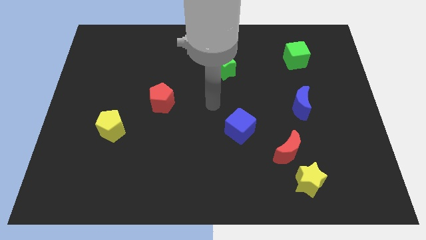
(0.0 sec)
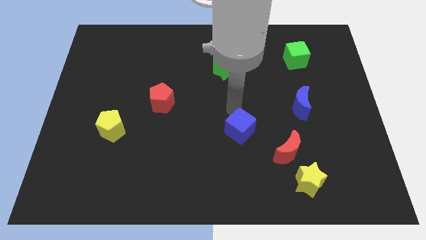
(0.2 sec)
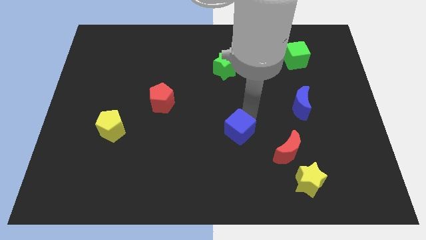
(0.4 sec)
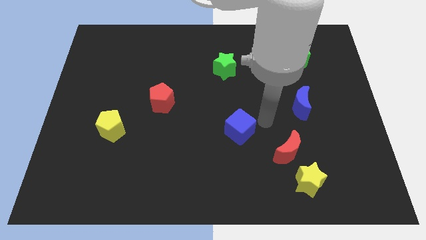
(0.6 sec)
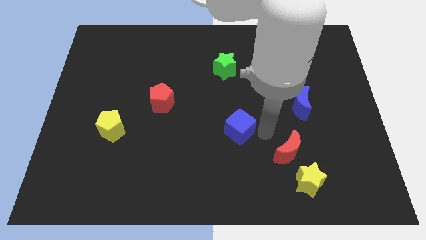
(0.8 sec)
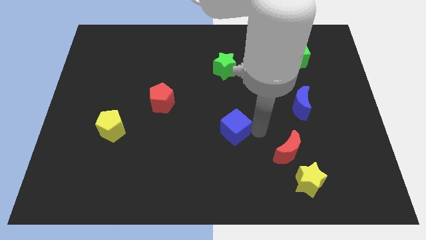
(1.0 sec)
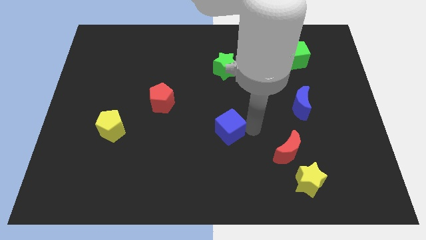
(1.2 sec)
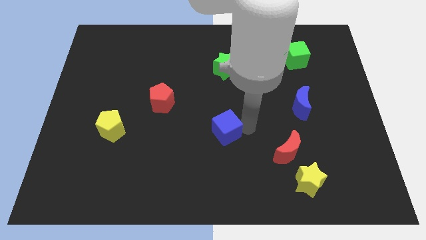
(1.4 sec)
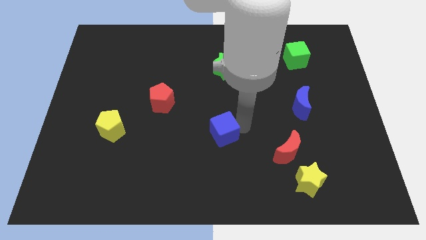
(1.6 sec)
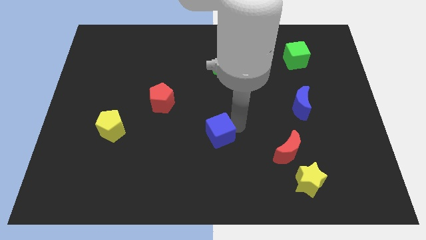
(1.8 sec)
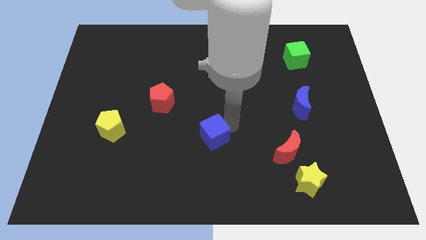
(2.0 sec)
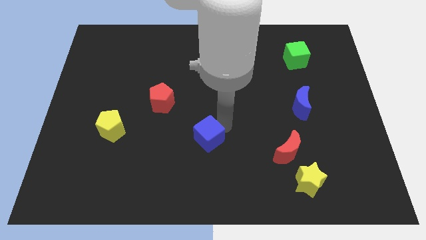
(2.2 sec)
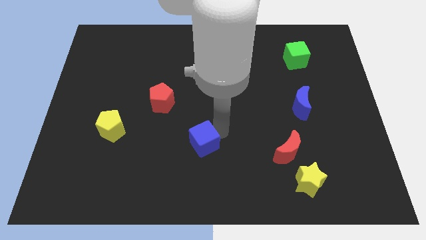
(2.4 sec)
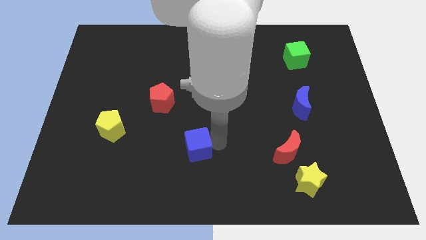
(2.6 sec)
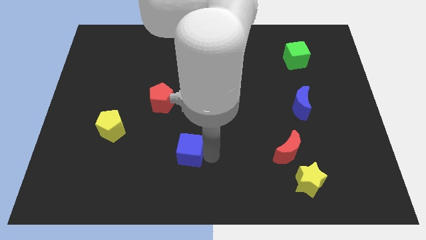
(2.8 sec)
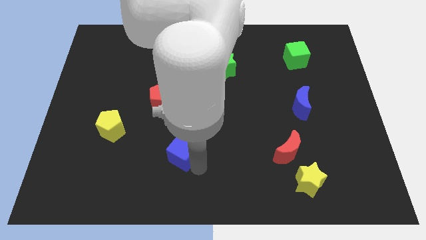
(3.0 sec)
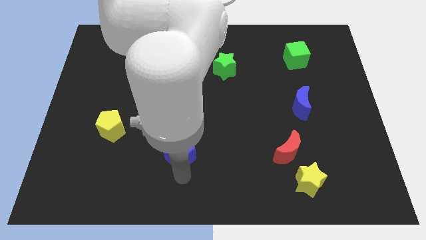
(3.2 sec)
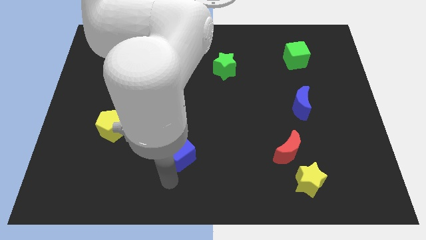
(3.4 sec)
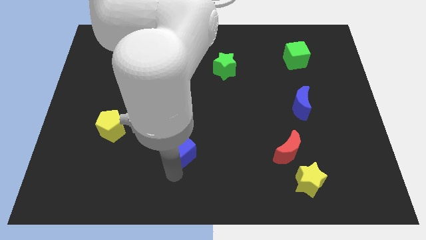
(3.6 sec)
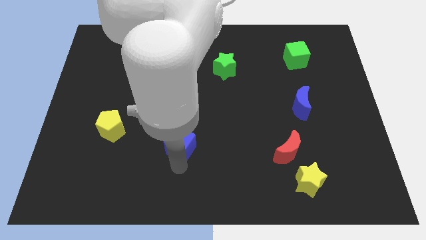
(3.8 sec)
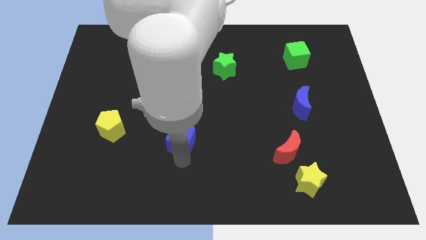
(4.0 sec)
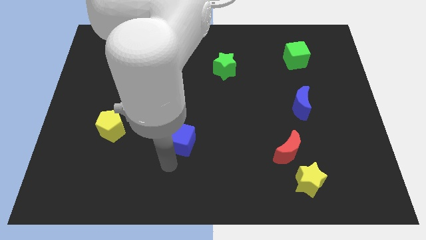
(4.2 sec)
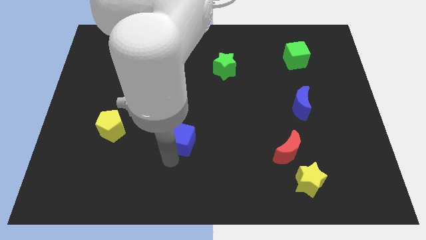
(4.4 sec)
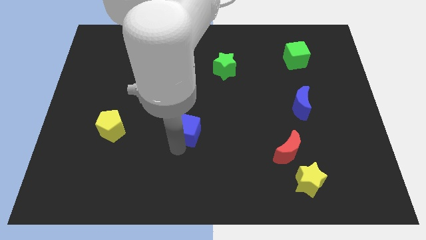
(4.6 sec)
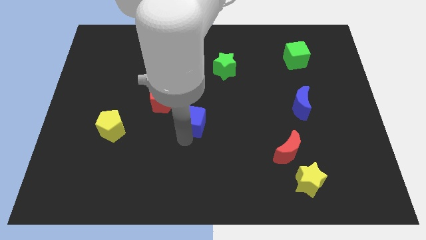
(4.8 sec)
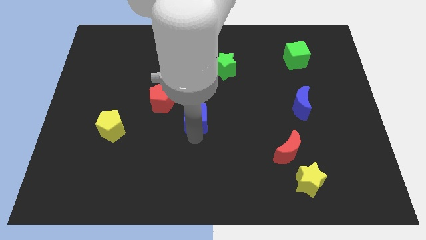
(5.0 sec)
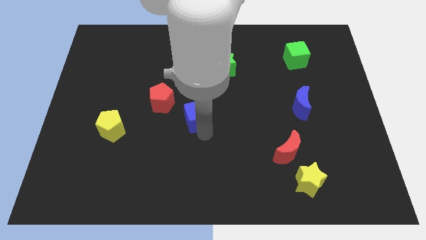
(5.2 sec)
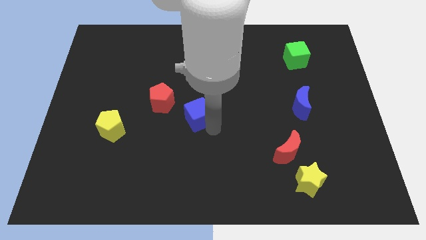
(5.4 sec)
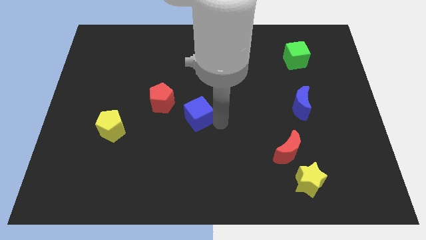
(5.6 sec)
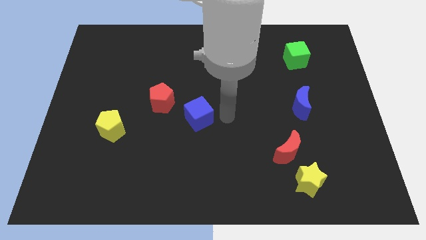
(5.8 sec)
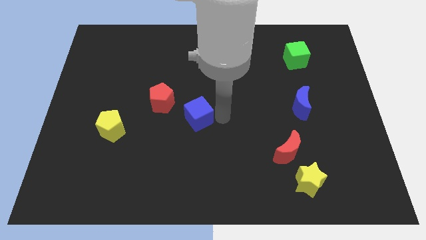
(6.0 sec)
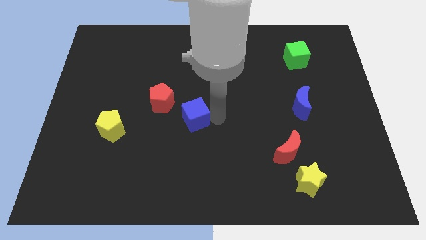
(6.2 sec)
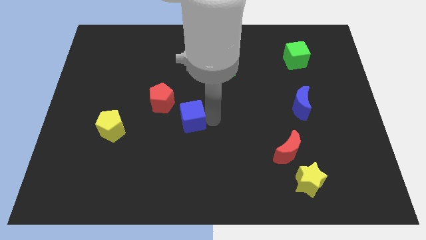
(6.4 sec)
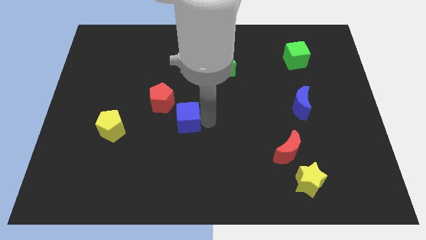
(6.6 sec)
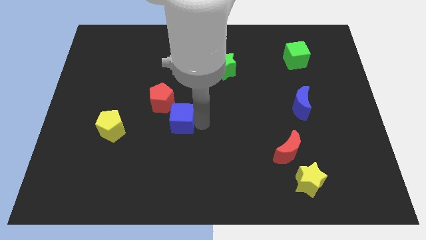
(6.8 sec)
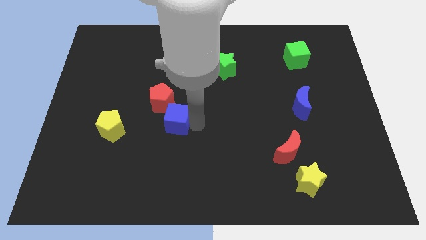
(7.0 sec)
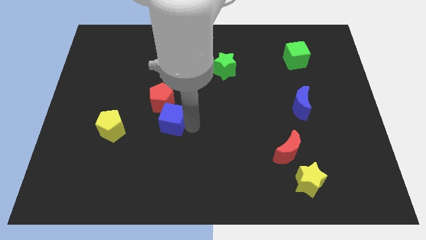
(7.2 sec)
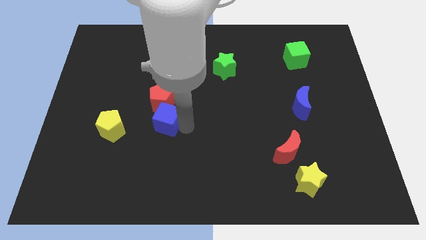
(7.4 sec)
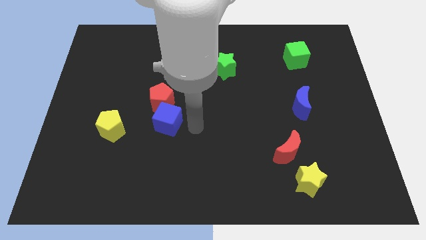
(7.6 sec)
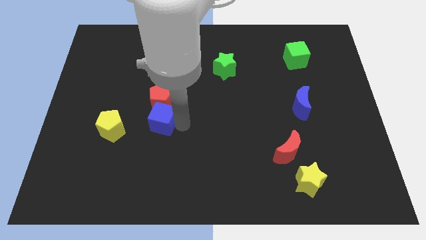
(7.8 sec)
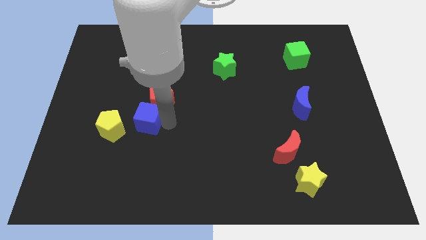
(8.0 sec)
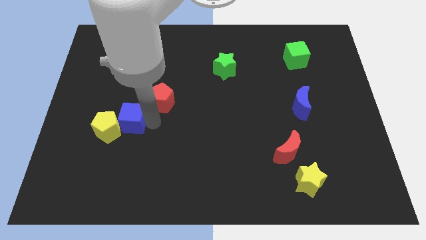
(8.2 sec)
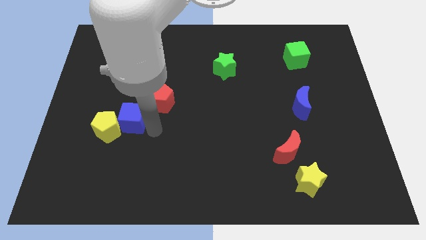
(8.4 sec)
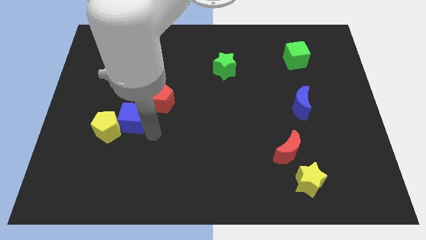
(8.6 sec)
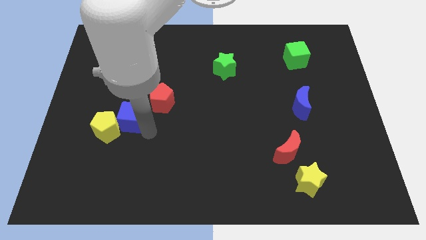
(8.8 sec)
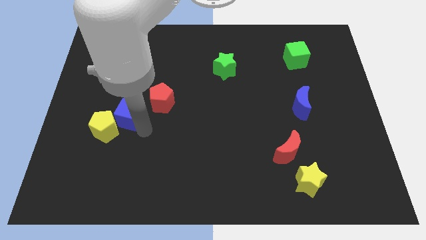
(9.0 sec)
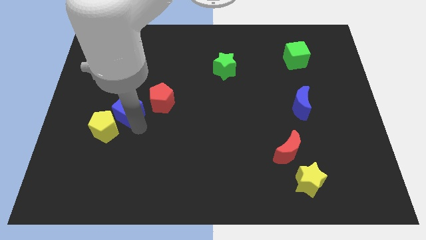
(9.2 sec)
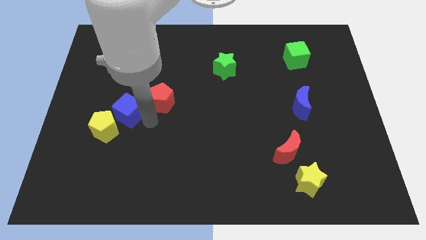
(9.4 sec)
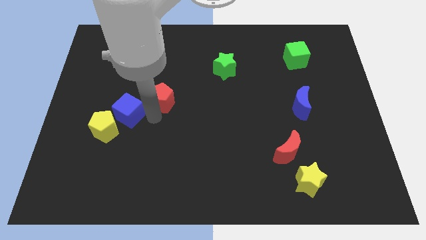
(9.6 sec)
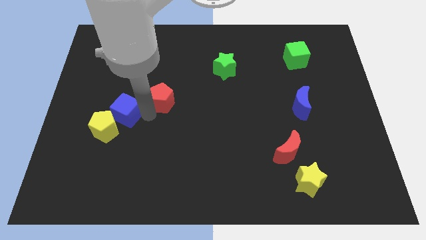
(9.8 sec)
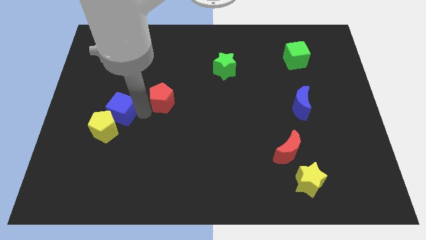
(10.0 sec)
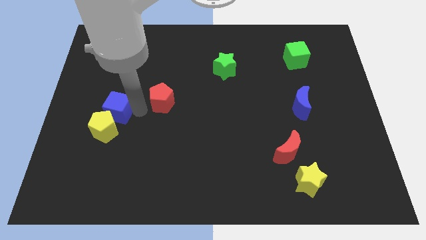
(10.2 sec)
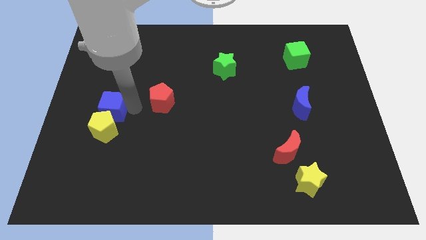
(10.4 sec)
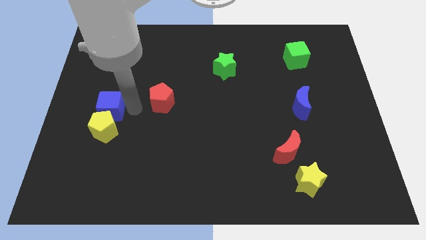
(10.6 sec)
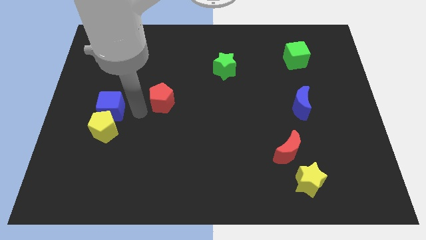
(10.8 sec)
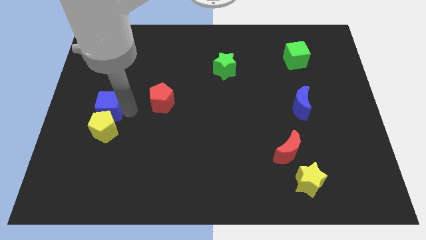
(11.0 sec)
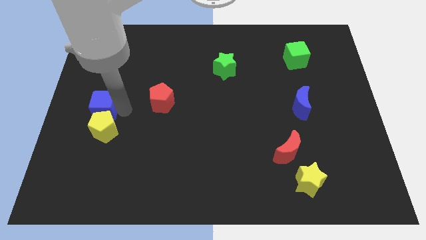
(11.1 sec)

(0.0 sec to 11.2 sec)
slide the blue cube to the center left

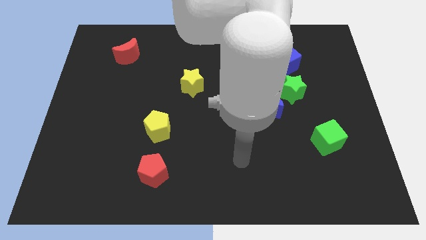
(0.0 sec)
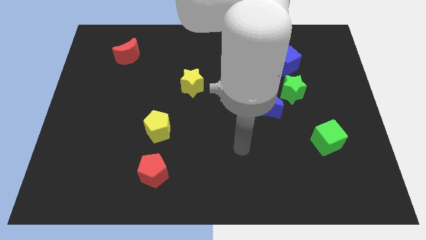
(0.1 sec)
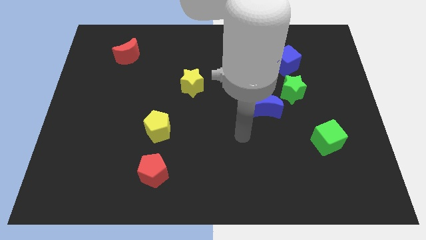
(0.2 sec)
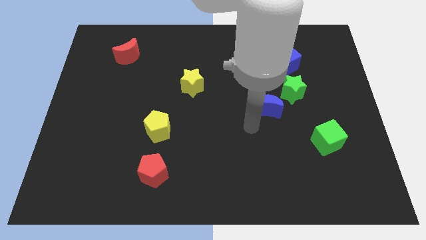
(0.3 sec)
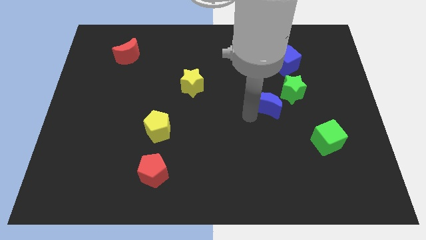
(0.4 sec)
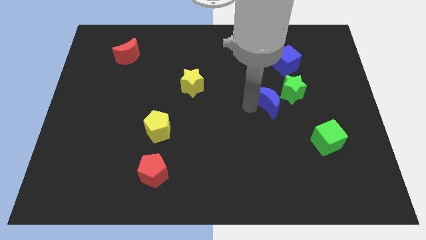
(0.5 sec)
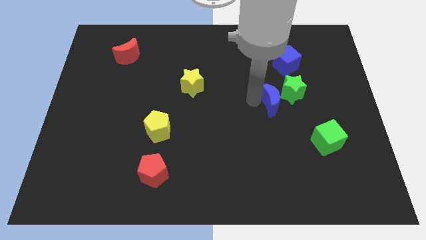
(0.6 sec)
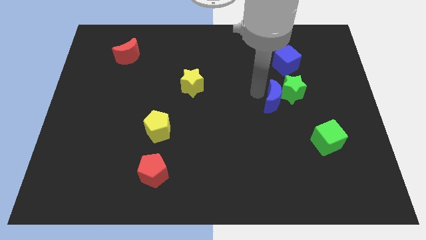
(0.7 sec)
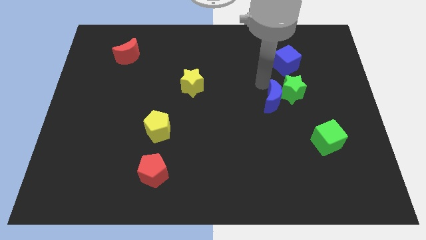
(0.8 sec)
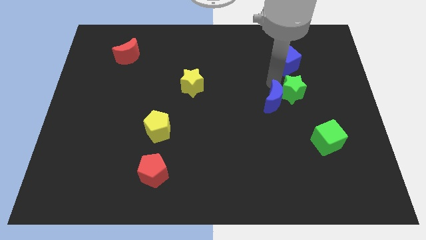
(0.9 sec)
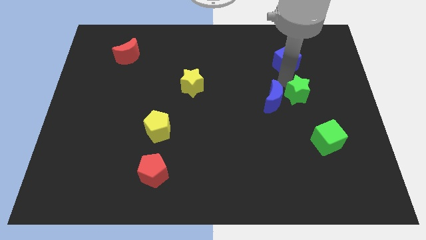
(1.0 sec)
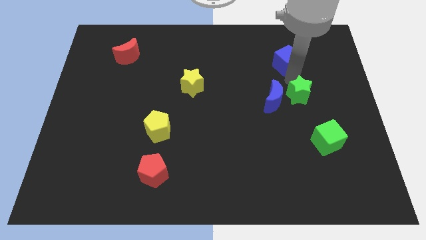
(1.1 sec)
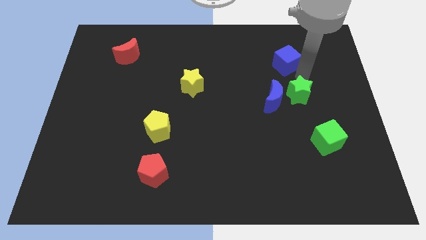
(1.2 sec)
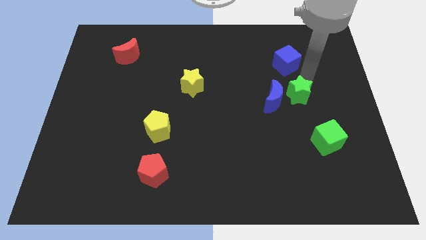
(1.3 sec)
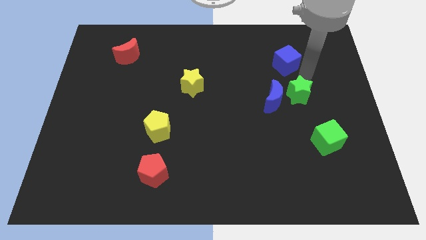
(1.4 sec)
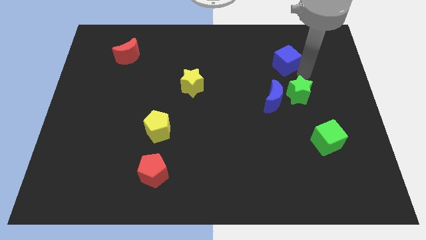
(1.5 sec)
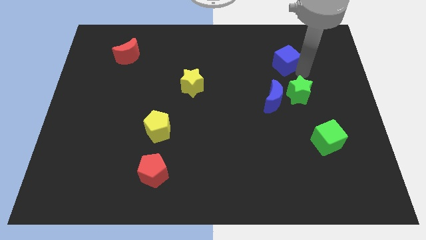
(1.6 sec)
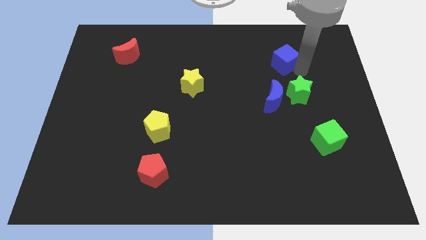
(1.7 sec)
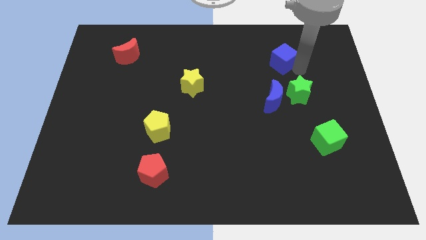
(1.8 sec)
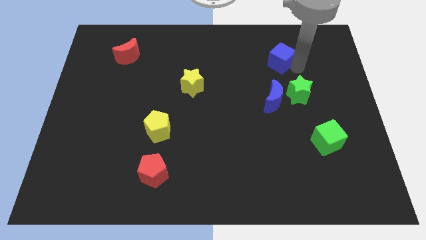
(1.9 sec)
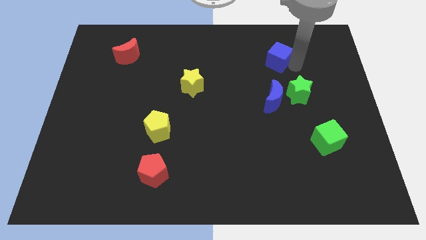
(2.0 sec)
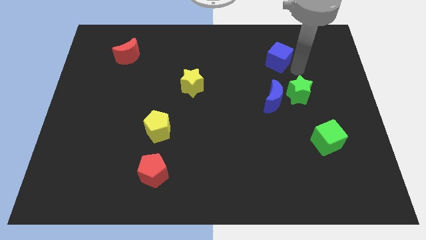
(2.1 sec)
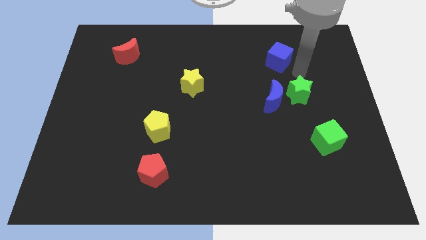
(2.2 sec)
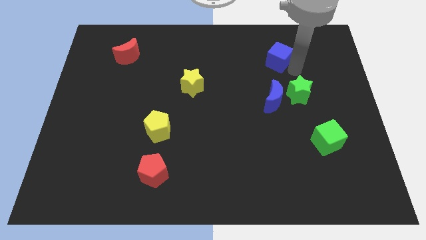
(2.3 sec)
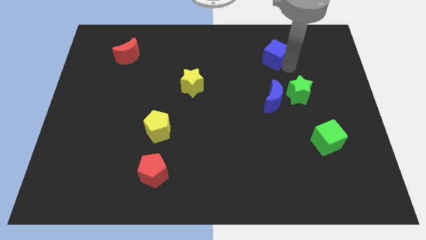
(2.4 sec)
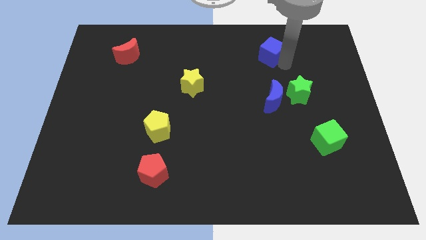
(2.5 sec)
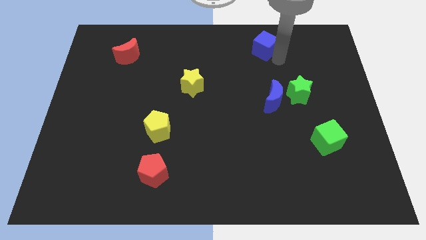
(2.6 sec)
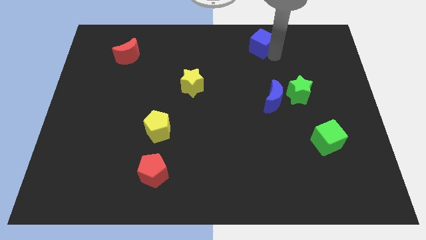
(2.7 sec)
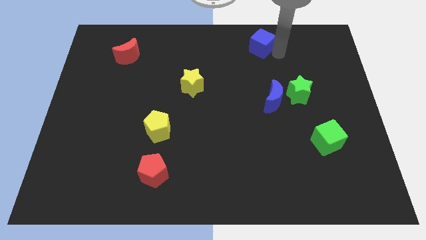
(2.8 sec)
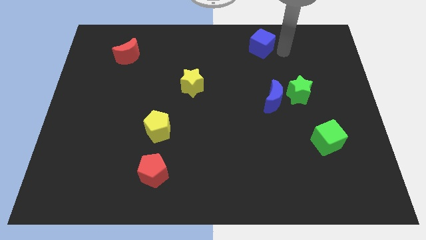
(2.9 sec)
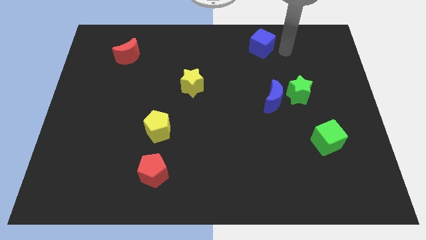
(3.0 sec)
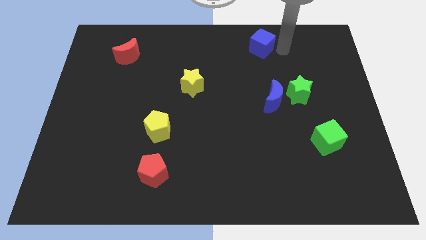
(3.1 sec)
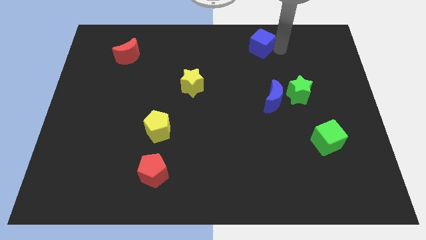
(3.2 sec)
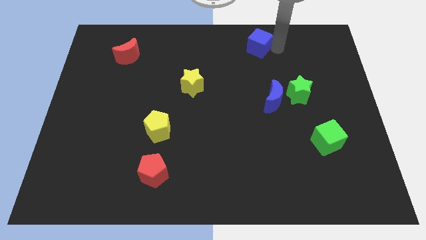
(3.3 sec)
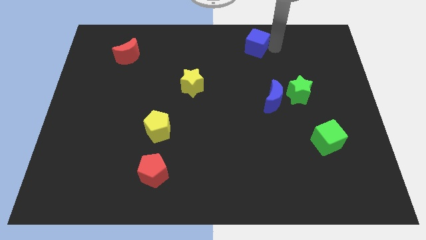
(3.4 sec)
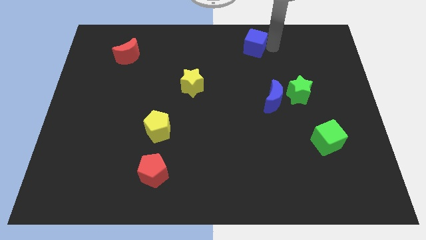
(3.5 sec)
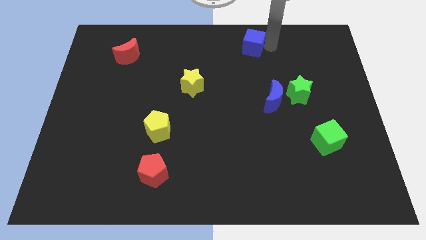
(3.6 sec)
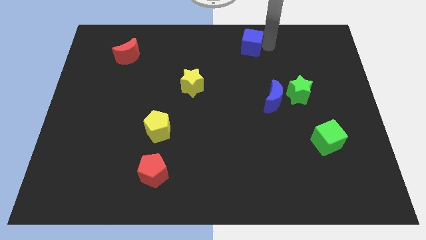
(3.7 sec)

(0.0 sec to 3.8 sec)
move the blue cube to the top side
